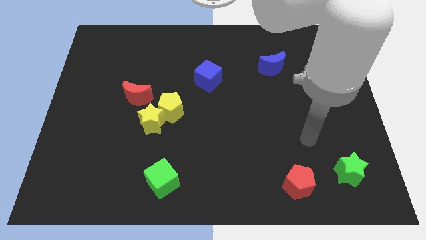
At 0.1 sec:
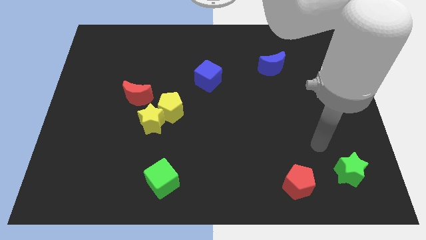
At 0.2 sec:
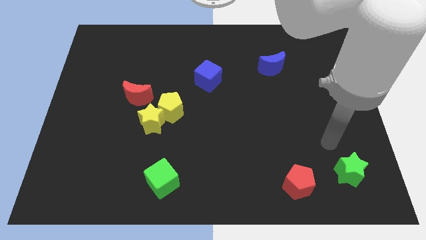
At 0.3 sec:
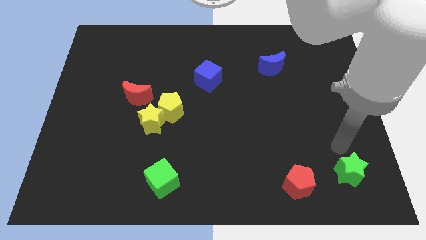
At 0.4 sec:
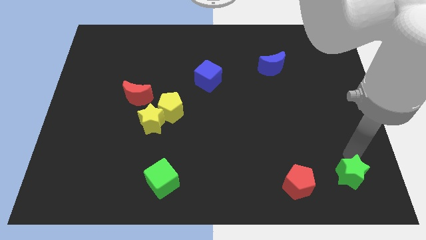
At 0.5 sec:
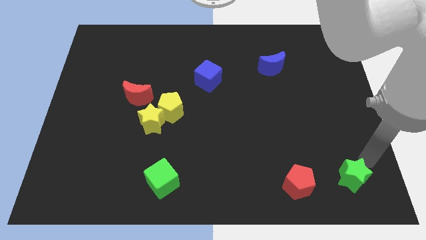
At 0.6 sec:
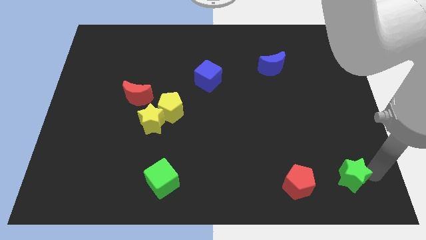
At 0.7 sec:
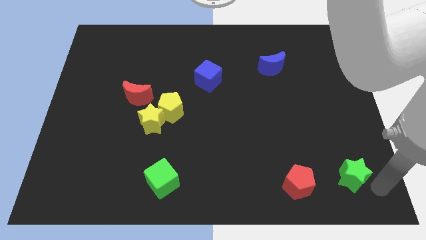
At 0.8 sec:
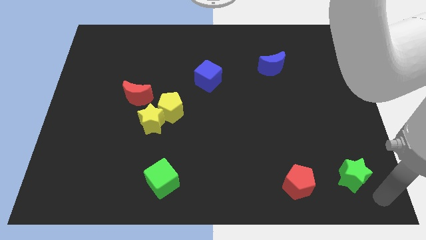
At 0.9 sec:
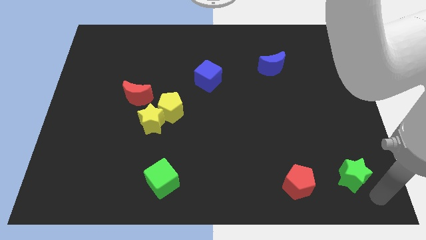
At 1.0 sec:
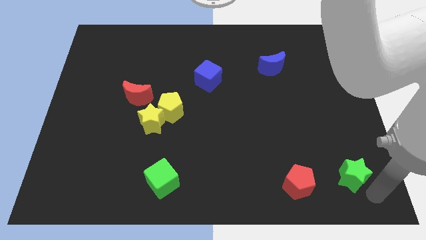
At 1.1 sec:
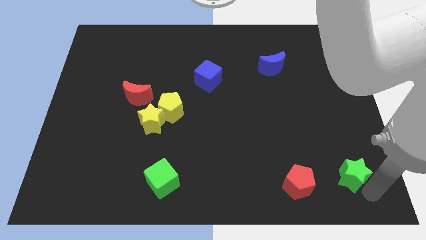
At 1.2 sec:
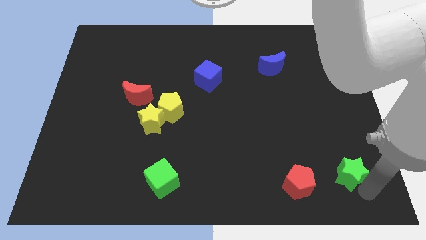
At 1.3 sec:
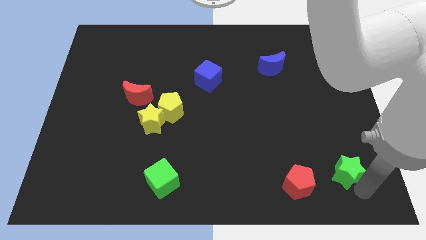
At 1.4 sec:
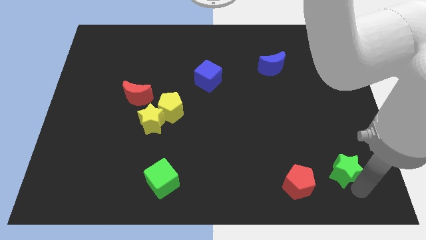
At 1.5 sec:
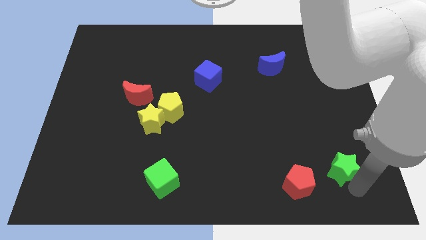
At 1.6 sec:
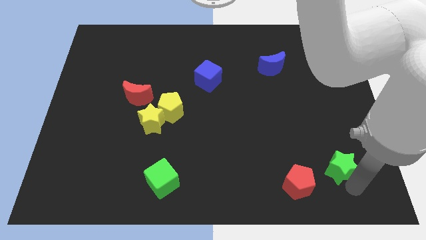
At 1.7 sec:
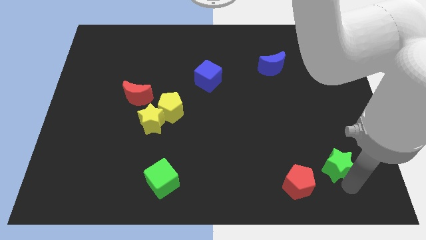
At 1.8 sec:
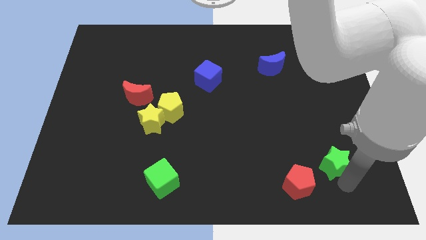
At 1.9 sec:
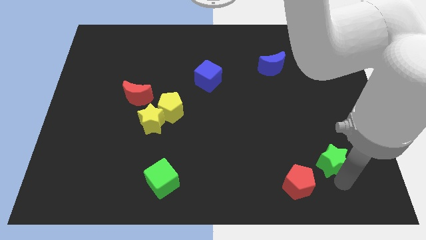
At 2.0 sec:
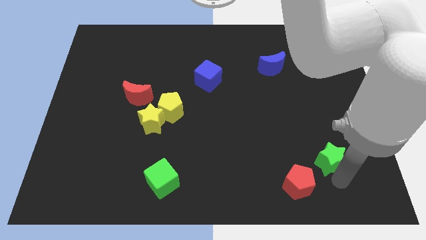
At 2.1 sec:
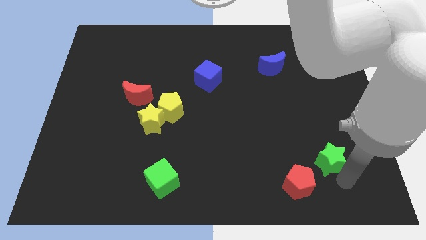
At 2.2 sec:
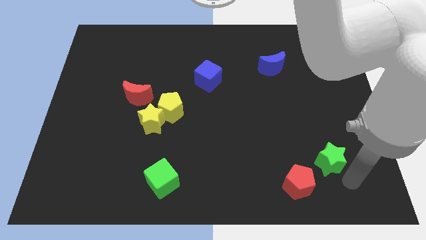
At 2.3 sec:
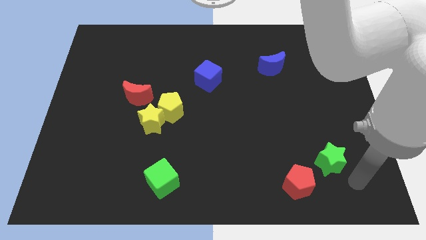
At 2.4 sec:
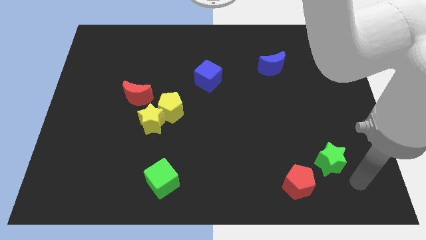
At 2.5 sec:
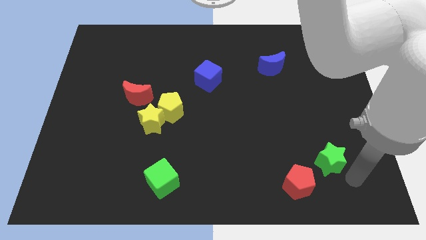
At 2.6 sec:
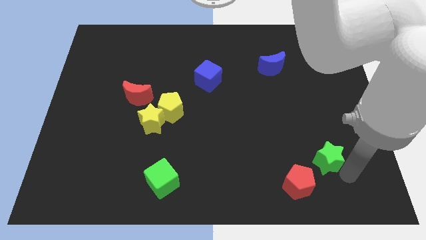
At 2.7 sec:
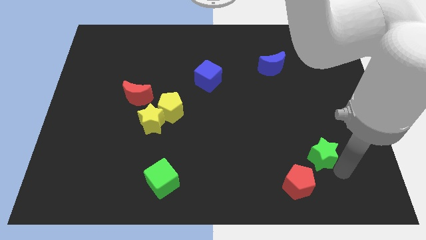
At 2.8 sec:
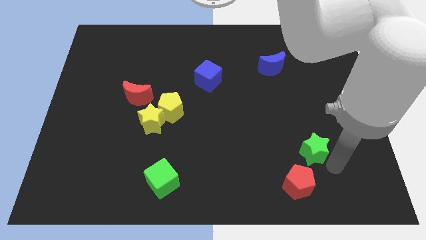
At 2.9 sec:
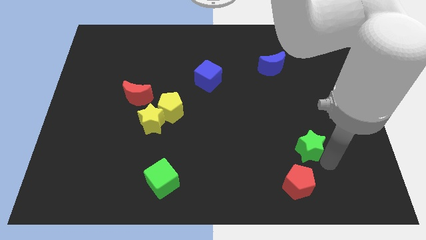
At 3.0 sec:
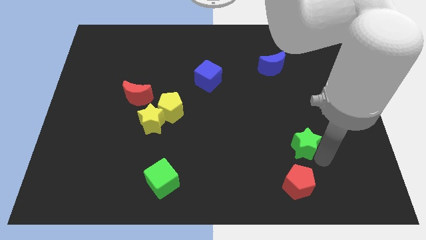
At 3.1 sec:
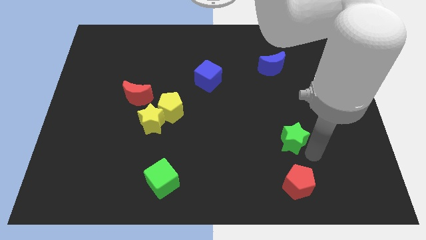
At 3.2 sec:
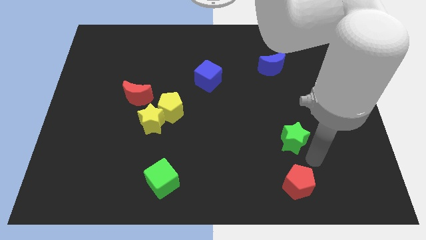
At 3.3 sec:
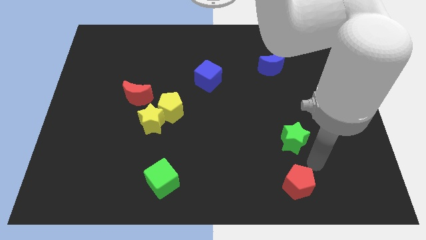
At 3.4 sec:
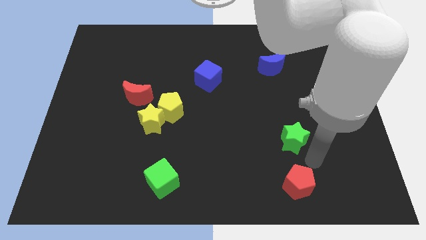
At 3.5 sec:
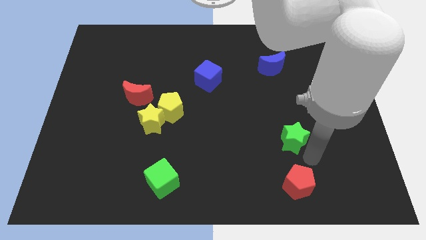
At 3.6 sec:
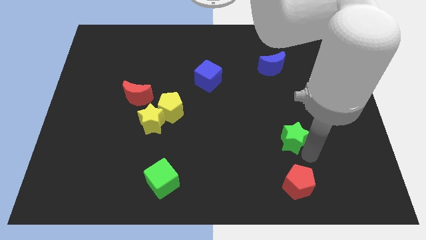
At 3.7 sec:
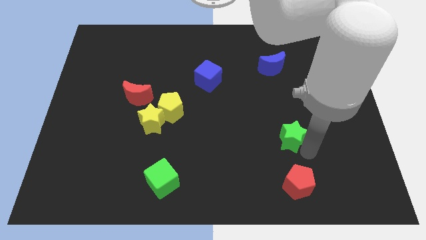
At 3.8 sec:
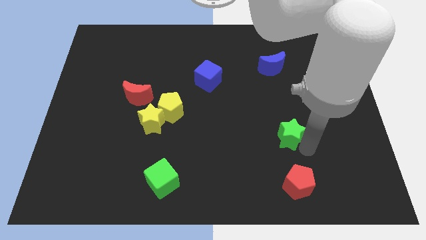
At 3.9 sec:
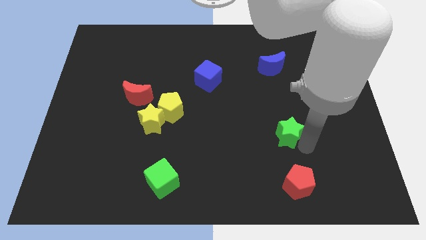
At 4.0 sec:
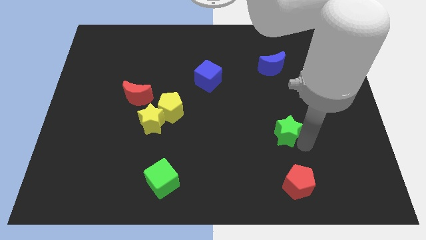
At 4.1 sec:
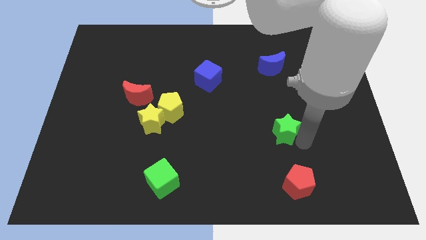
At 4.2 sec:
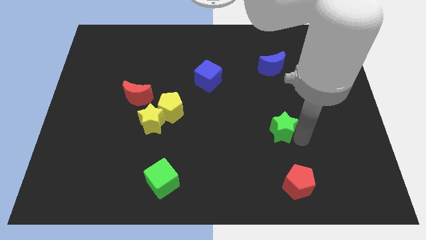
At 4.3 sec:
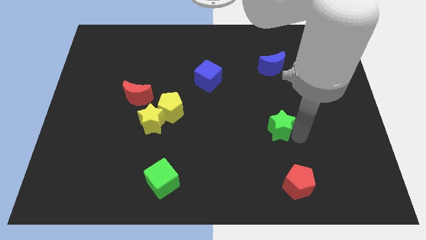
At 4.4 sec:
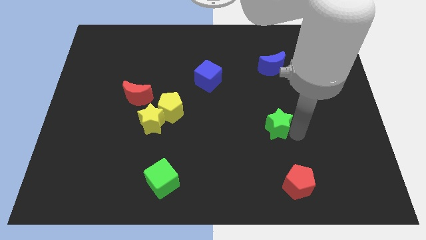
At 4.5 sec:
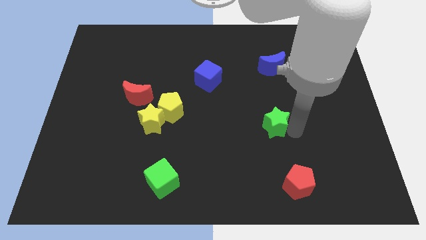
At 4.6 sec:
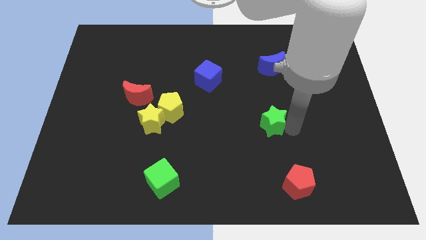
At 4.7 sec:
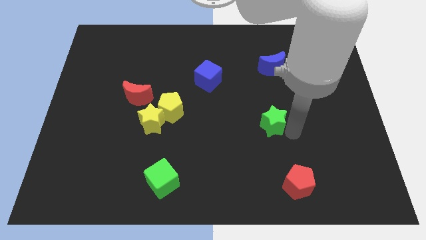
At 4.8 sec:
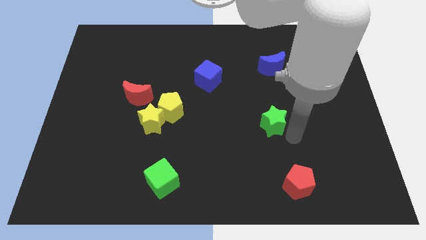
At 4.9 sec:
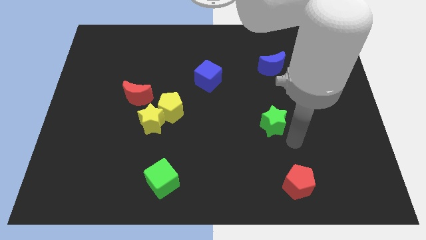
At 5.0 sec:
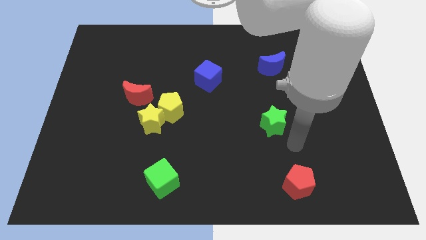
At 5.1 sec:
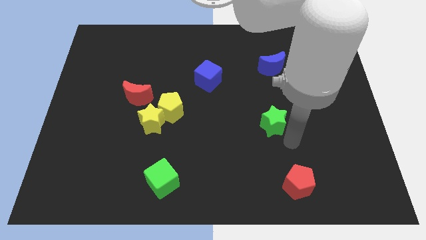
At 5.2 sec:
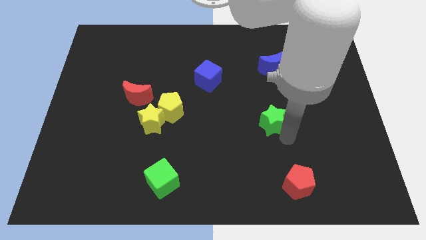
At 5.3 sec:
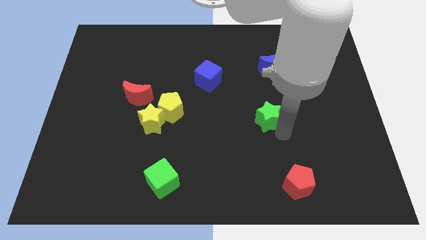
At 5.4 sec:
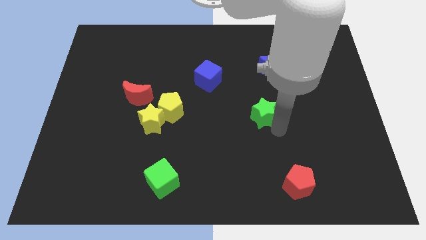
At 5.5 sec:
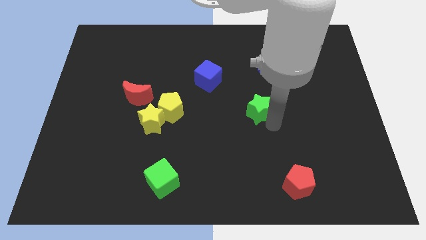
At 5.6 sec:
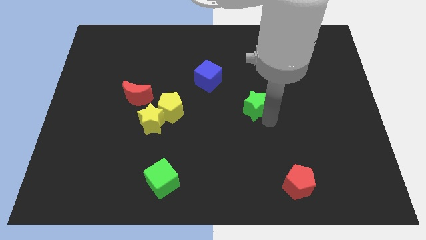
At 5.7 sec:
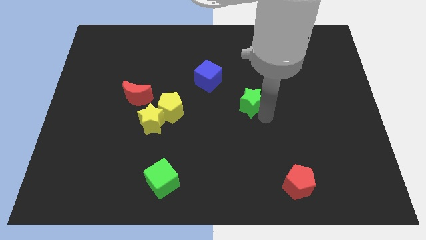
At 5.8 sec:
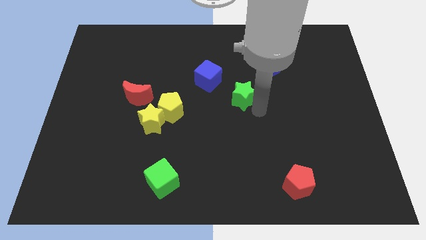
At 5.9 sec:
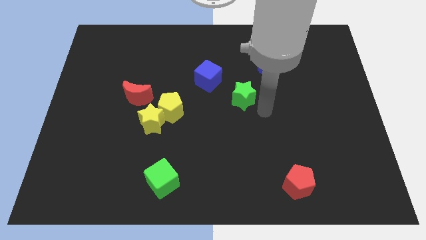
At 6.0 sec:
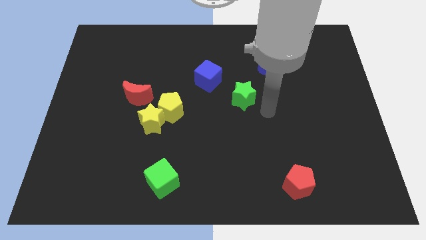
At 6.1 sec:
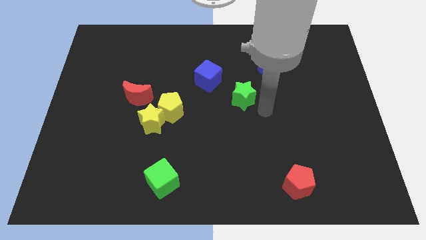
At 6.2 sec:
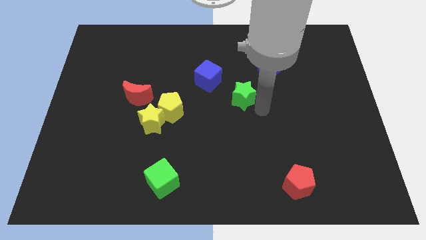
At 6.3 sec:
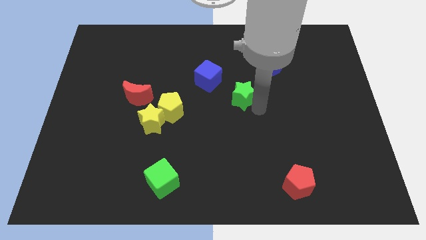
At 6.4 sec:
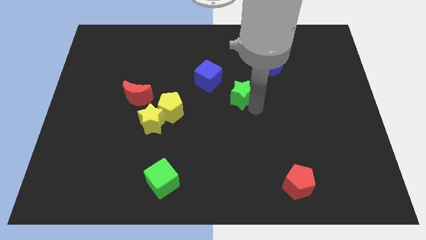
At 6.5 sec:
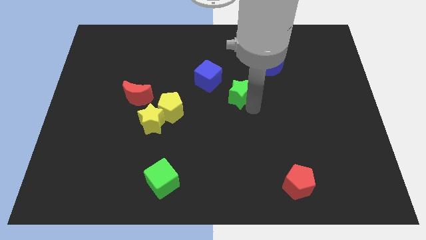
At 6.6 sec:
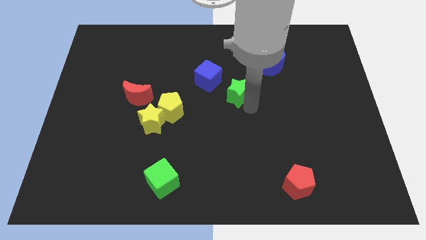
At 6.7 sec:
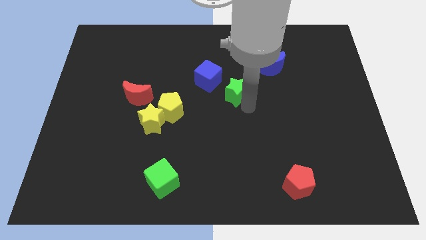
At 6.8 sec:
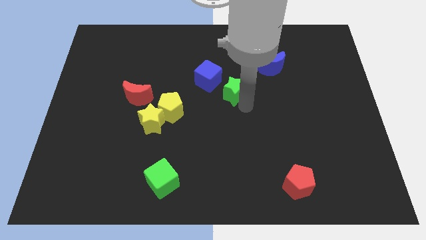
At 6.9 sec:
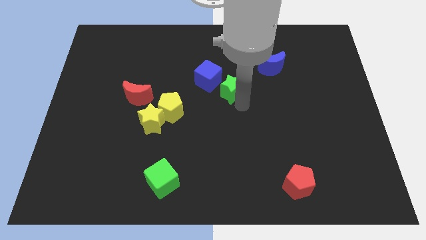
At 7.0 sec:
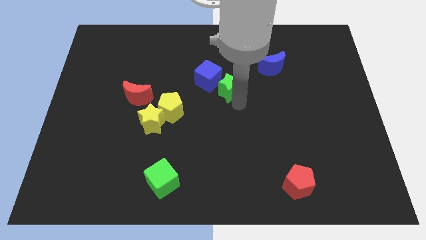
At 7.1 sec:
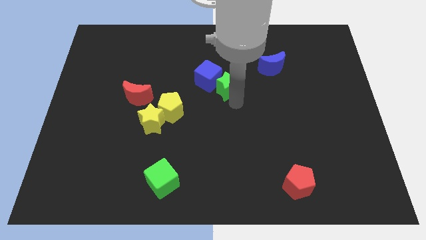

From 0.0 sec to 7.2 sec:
put the green star next to the blue cube

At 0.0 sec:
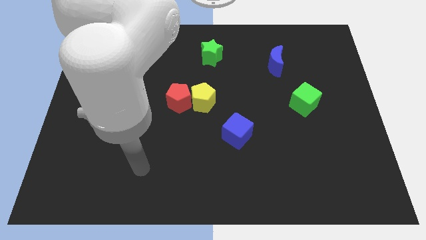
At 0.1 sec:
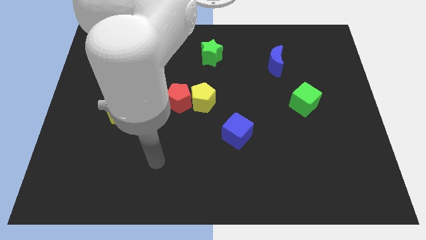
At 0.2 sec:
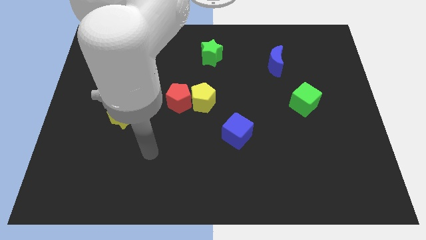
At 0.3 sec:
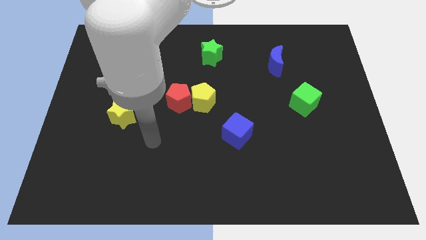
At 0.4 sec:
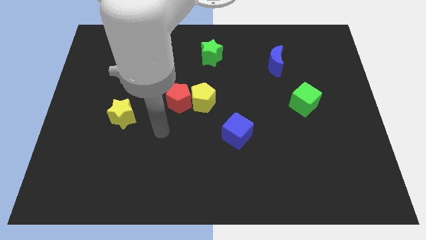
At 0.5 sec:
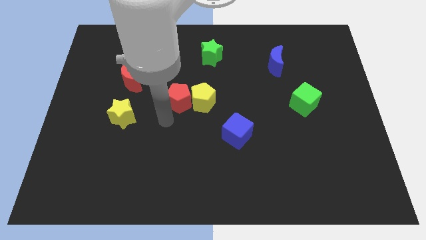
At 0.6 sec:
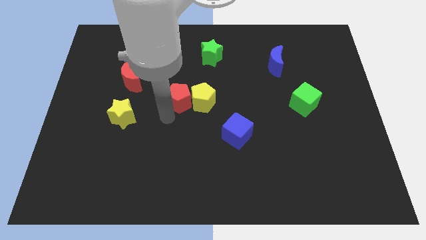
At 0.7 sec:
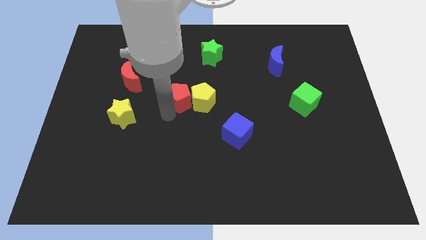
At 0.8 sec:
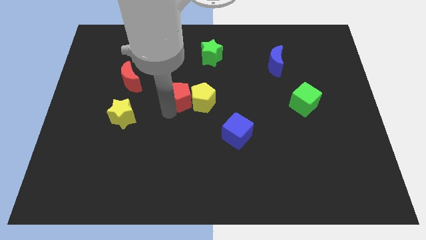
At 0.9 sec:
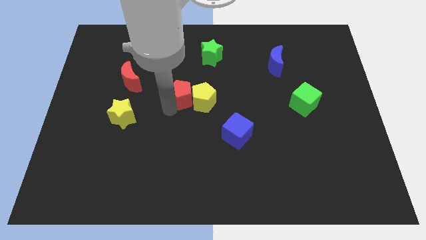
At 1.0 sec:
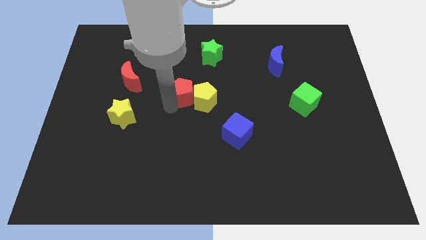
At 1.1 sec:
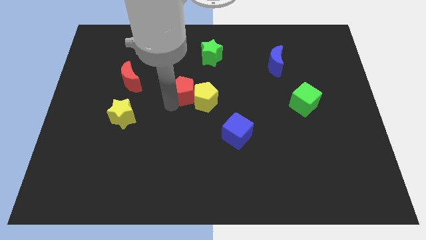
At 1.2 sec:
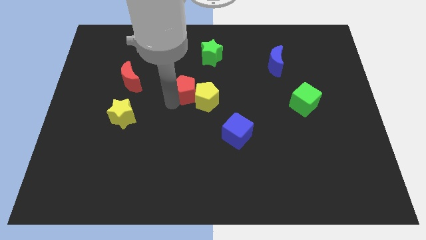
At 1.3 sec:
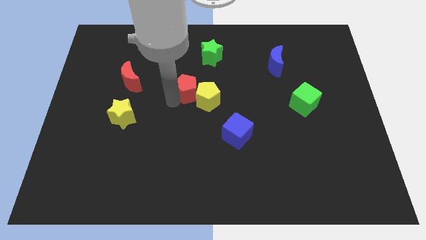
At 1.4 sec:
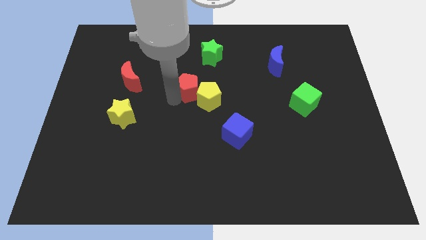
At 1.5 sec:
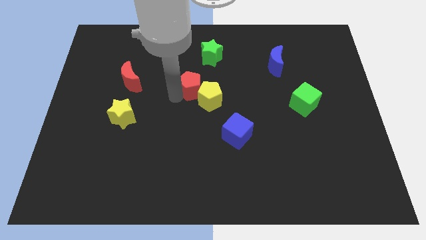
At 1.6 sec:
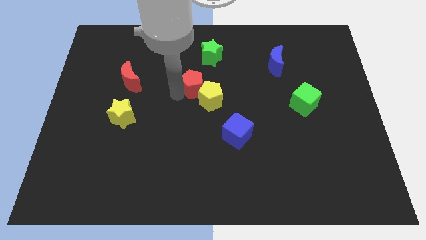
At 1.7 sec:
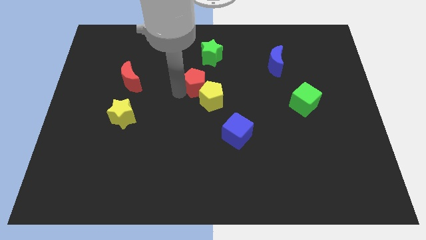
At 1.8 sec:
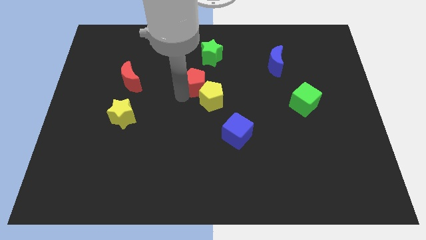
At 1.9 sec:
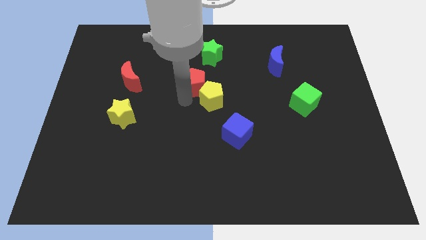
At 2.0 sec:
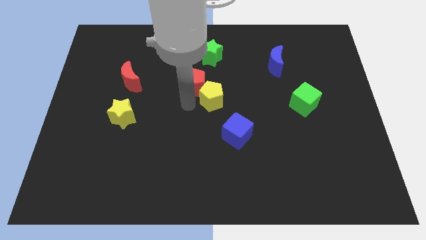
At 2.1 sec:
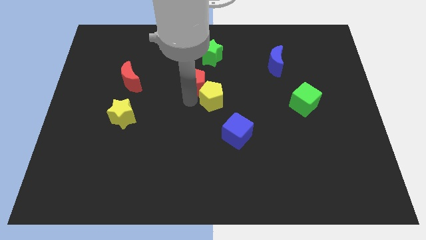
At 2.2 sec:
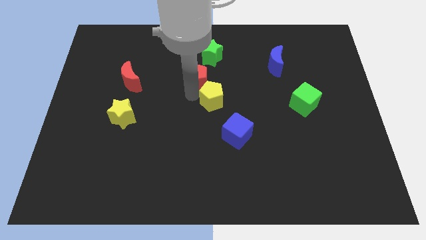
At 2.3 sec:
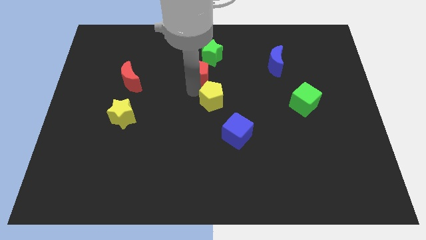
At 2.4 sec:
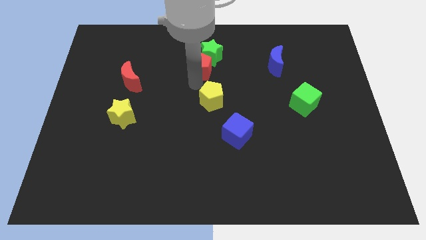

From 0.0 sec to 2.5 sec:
move the red pentagon next to the green star
